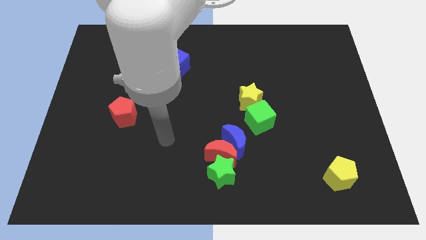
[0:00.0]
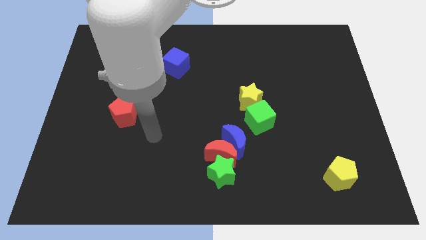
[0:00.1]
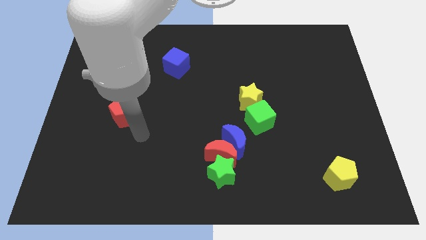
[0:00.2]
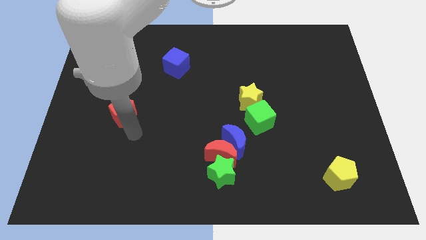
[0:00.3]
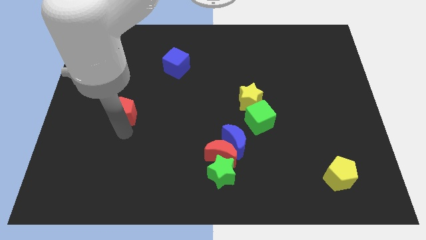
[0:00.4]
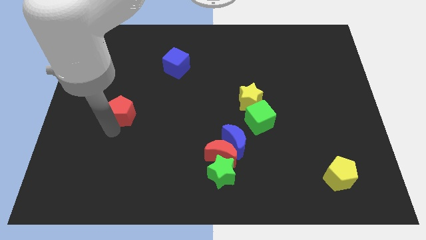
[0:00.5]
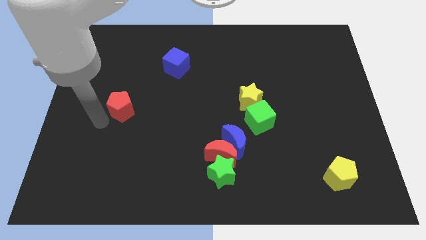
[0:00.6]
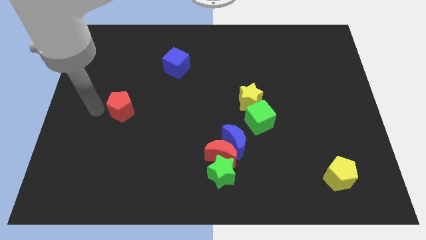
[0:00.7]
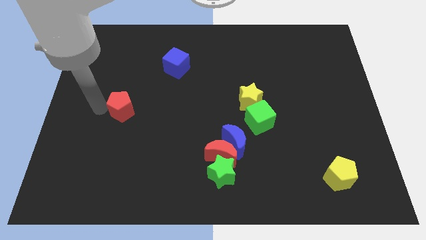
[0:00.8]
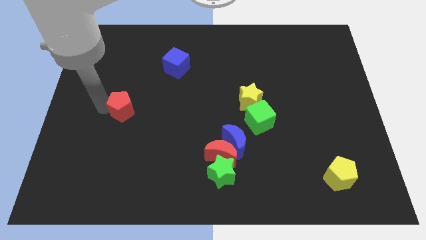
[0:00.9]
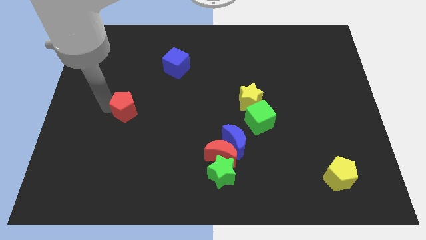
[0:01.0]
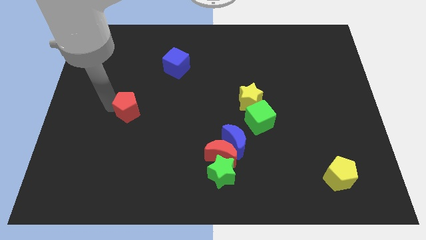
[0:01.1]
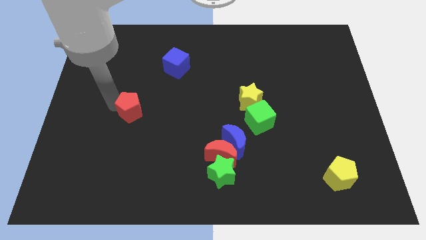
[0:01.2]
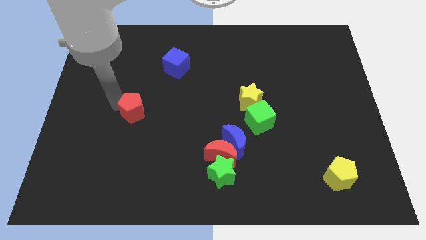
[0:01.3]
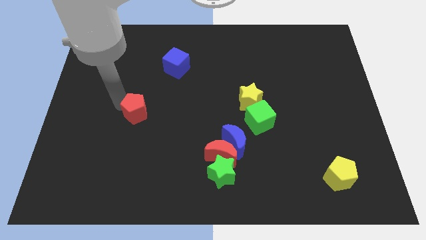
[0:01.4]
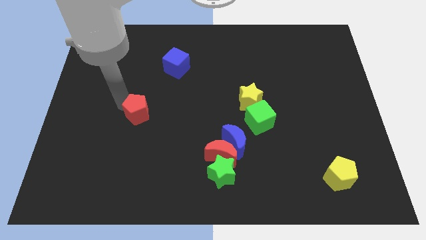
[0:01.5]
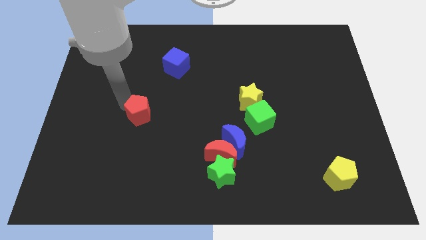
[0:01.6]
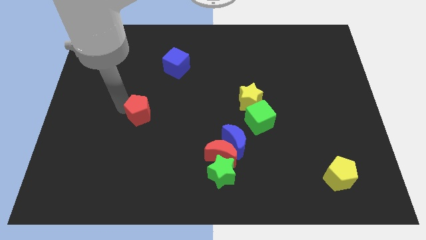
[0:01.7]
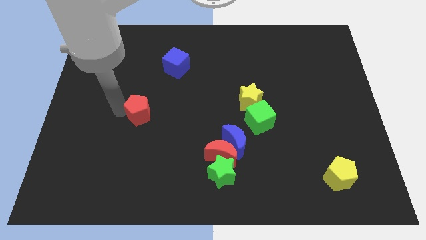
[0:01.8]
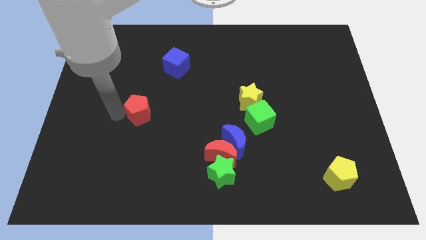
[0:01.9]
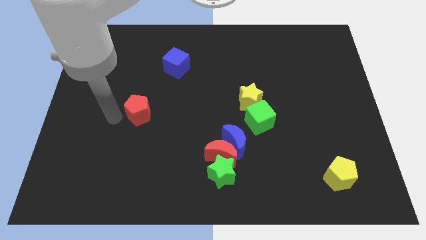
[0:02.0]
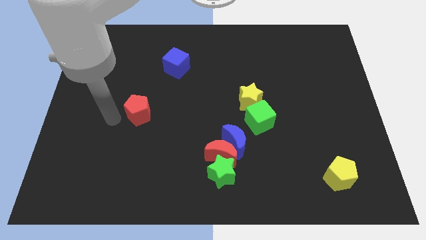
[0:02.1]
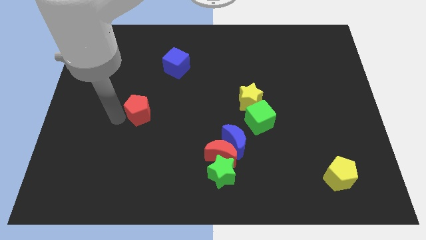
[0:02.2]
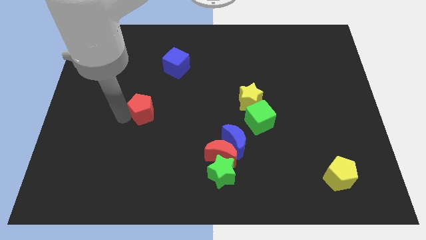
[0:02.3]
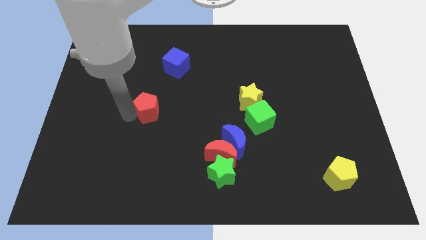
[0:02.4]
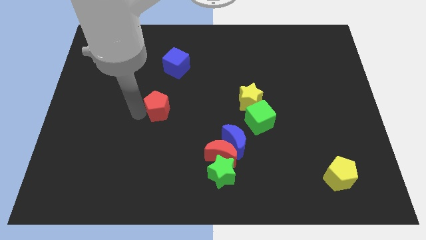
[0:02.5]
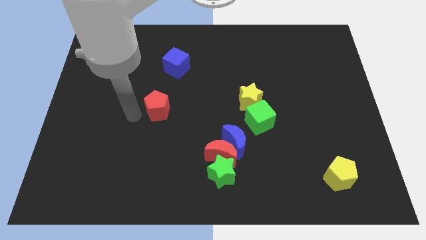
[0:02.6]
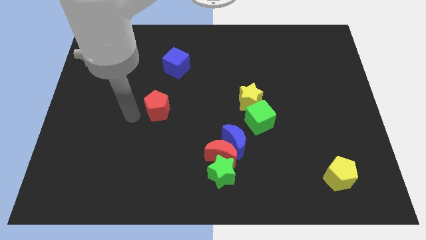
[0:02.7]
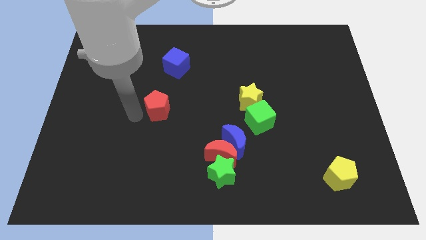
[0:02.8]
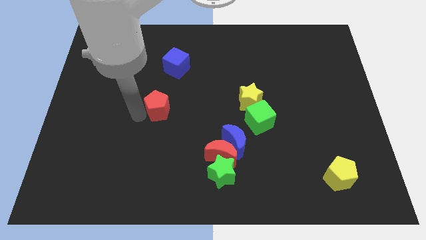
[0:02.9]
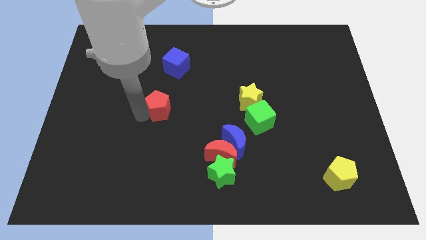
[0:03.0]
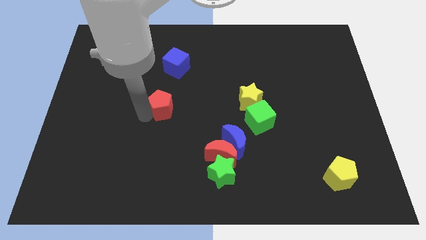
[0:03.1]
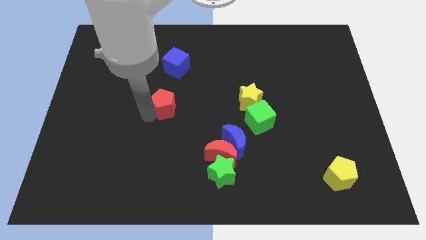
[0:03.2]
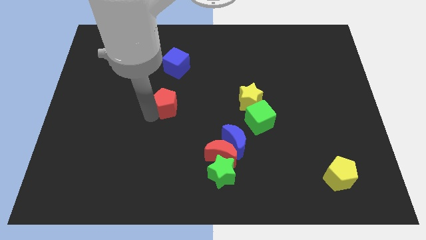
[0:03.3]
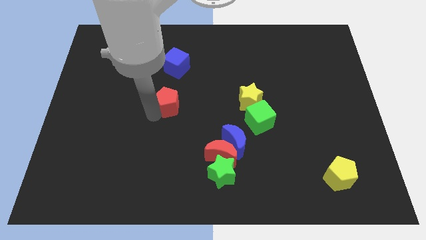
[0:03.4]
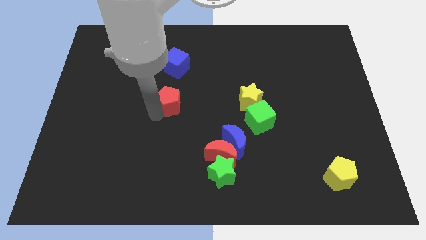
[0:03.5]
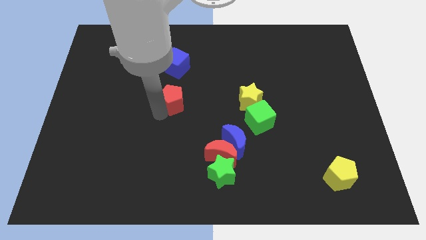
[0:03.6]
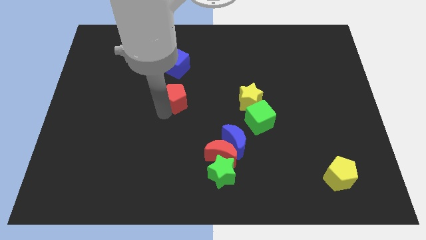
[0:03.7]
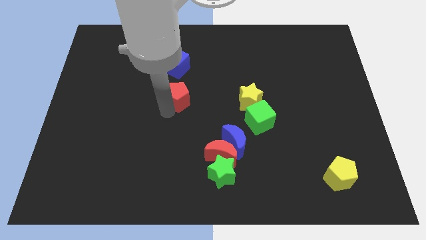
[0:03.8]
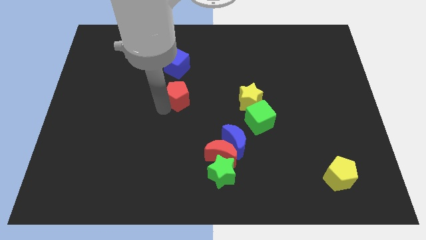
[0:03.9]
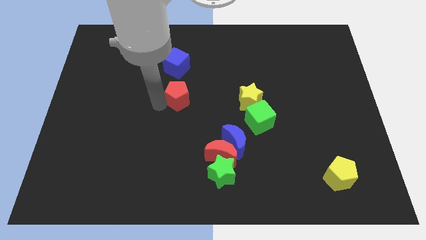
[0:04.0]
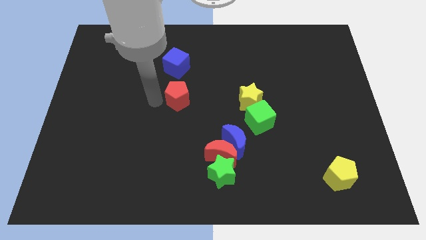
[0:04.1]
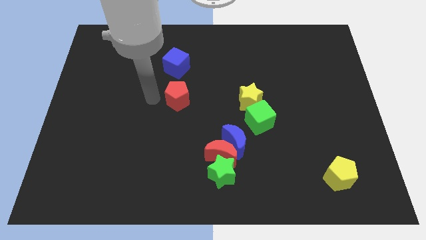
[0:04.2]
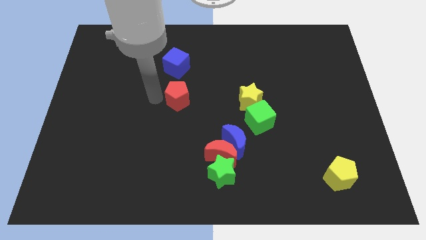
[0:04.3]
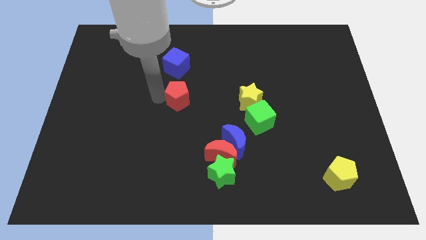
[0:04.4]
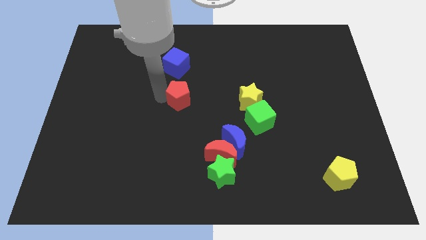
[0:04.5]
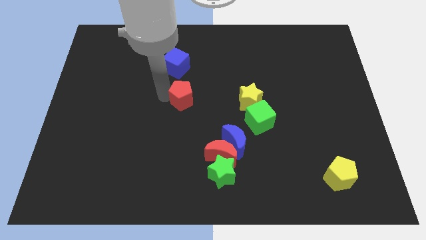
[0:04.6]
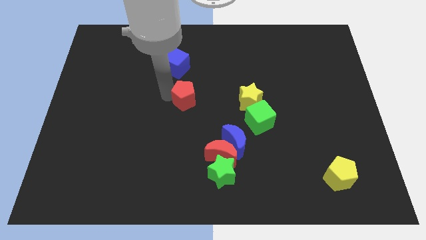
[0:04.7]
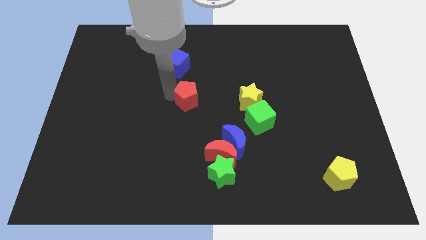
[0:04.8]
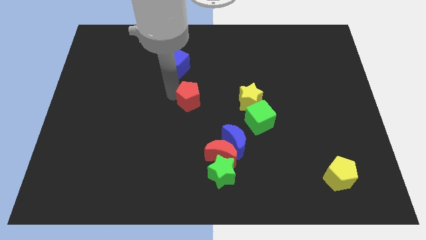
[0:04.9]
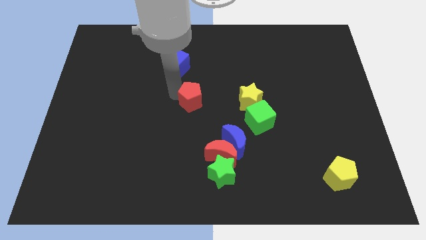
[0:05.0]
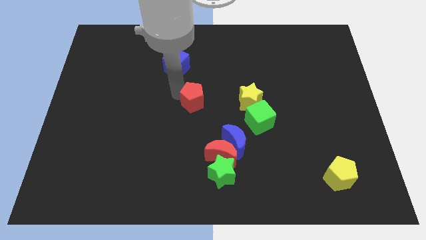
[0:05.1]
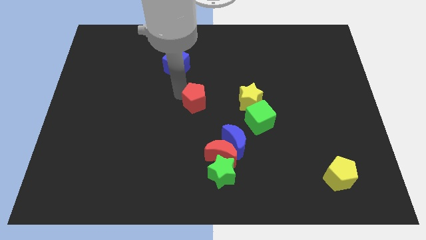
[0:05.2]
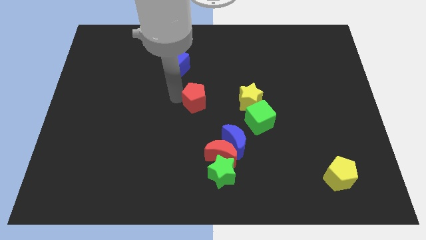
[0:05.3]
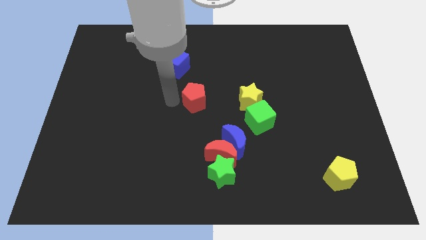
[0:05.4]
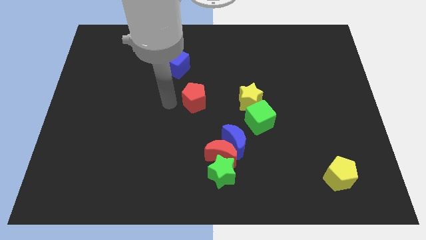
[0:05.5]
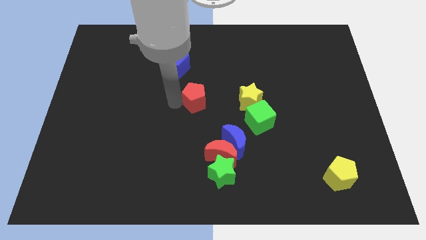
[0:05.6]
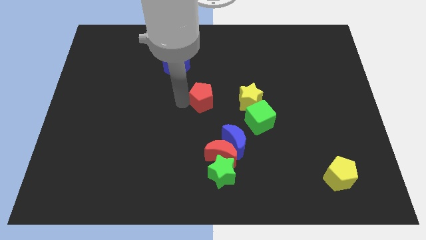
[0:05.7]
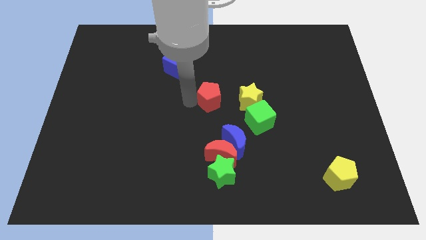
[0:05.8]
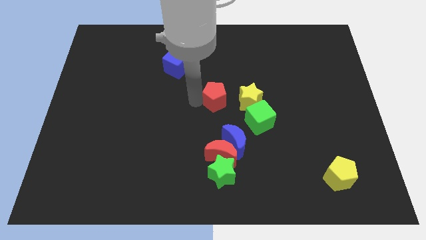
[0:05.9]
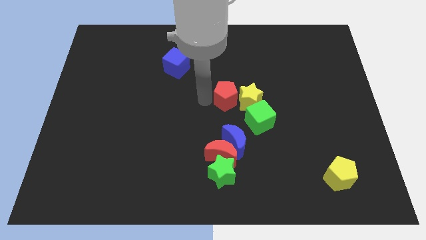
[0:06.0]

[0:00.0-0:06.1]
put the red pentagon close to the yellow star

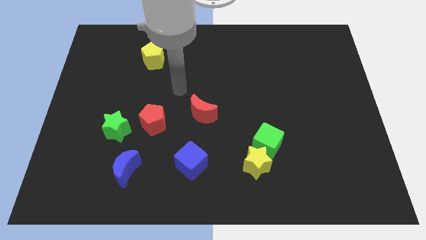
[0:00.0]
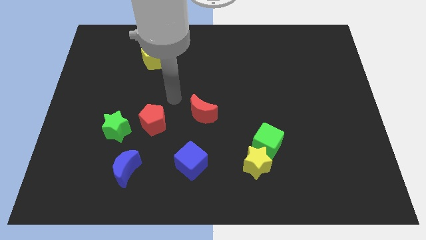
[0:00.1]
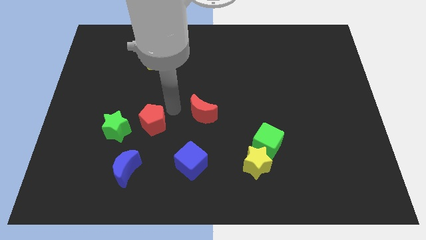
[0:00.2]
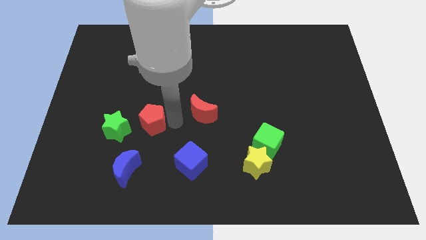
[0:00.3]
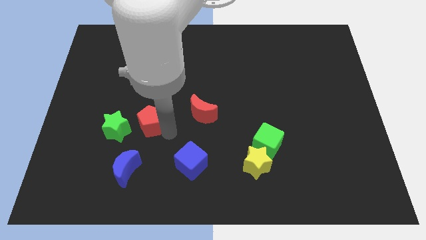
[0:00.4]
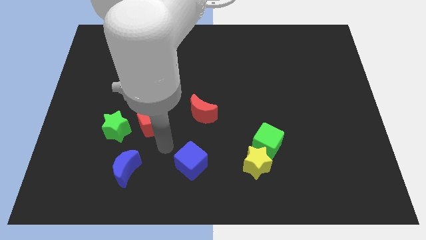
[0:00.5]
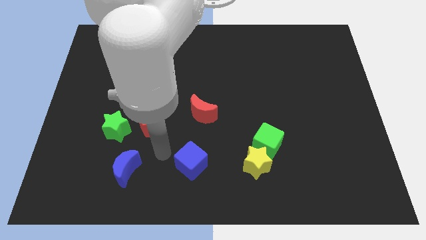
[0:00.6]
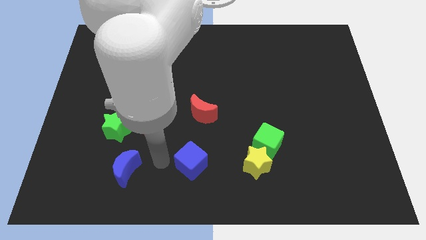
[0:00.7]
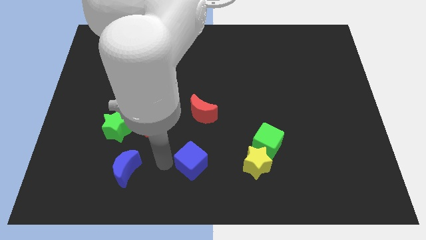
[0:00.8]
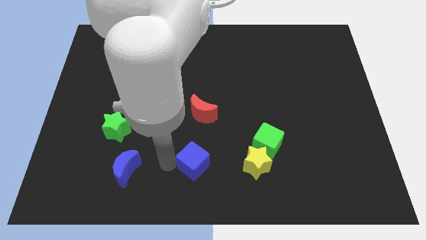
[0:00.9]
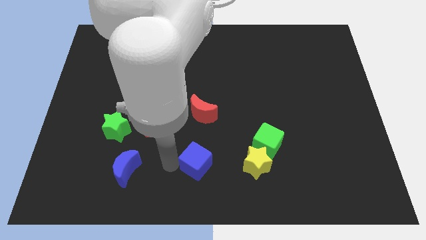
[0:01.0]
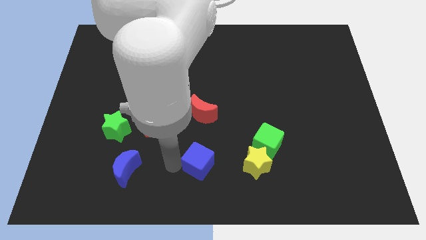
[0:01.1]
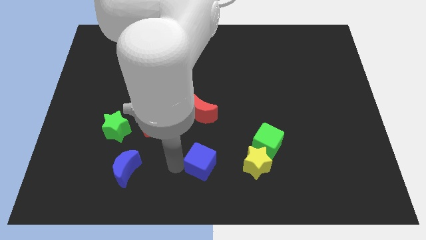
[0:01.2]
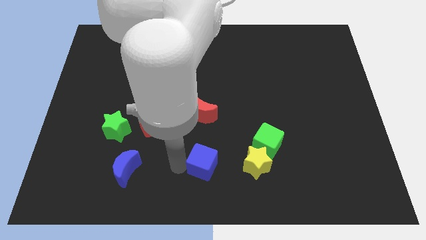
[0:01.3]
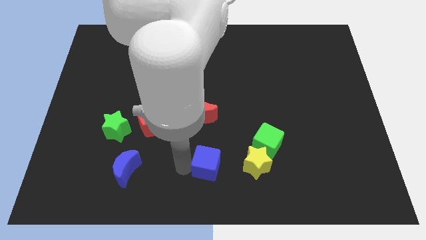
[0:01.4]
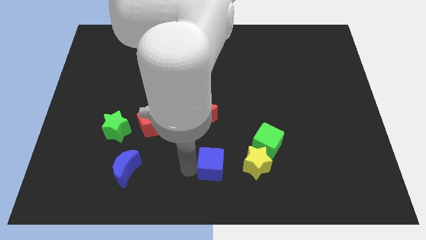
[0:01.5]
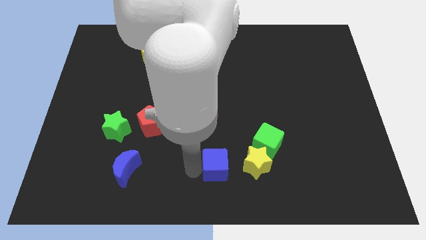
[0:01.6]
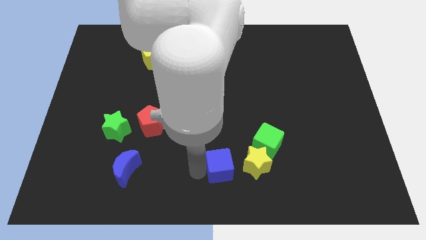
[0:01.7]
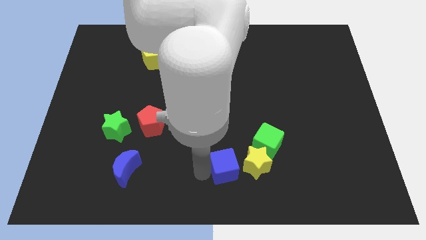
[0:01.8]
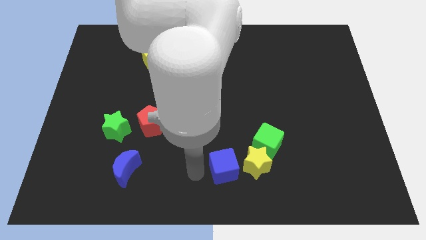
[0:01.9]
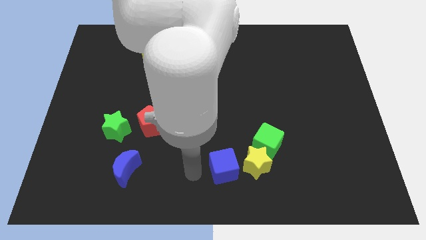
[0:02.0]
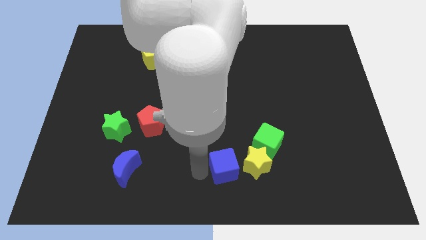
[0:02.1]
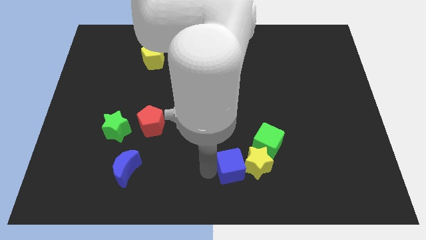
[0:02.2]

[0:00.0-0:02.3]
move the blue cube towards the yellow star

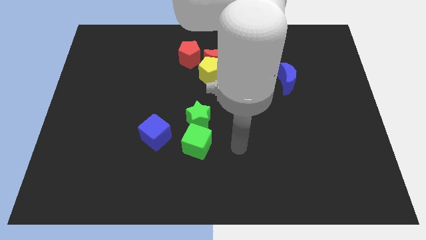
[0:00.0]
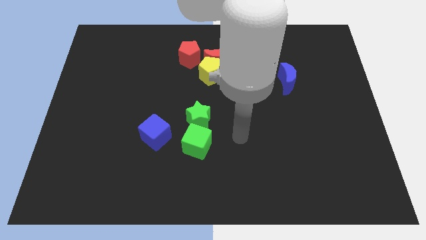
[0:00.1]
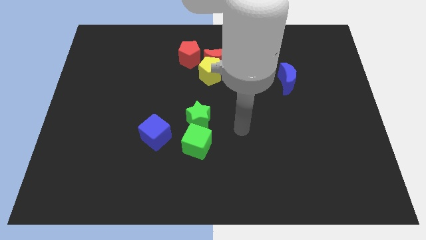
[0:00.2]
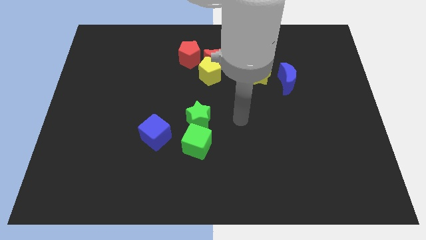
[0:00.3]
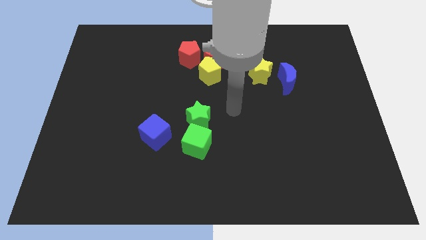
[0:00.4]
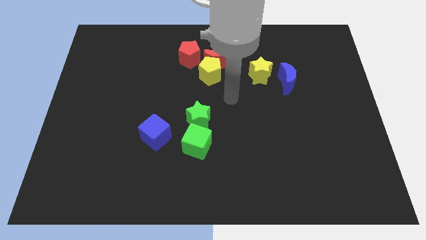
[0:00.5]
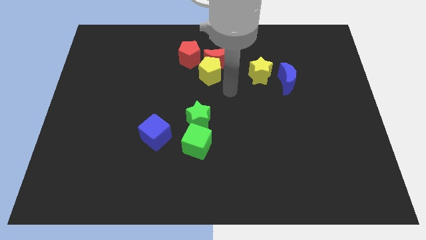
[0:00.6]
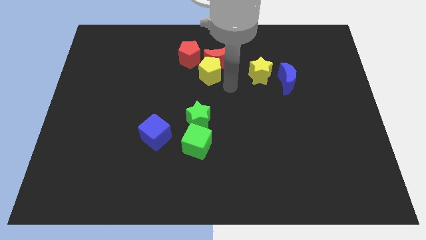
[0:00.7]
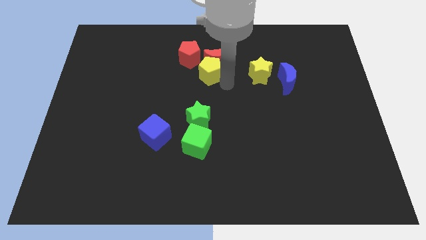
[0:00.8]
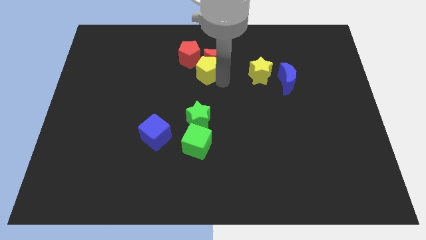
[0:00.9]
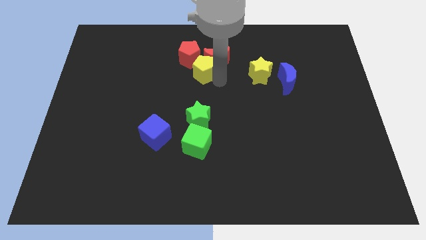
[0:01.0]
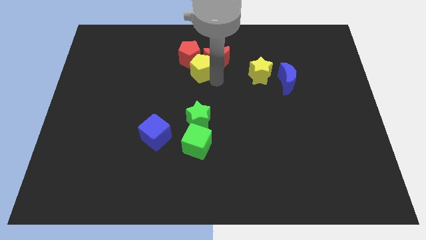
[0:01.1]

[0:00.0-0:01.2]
slide the yellow pentagon to the red pentagon
